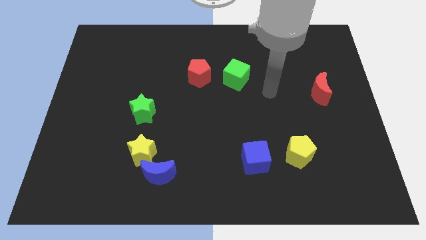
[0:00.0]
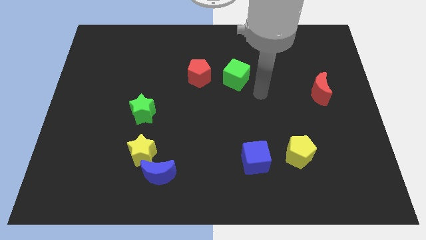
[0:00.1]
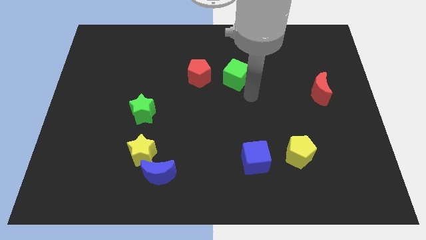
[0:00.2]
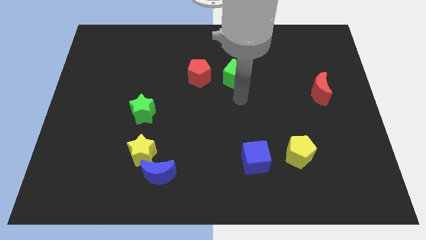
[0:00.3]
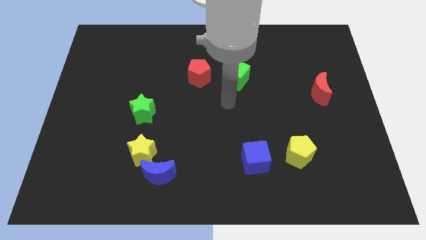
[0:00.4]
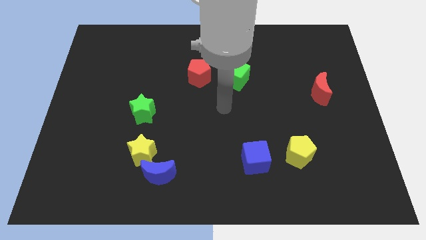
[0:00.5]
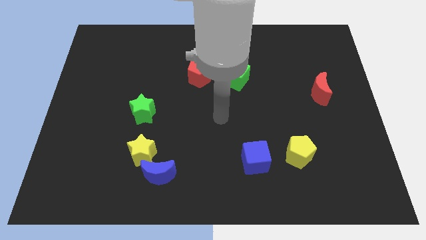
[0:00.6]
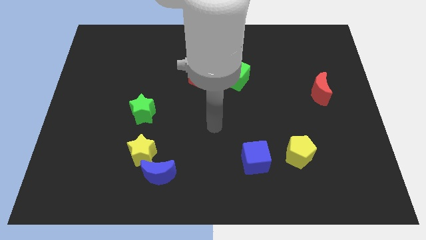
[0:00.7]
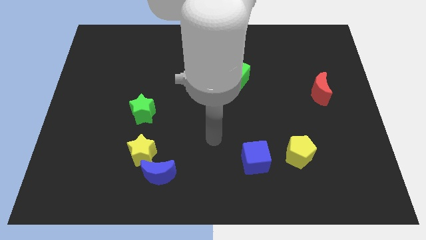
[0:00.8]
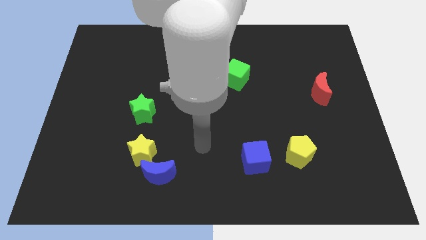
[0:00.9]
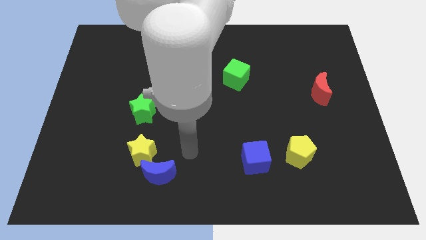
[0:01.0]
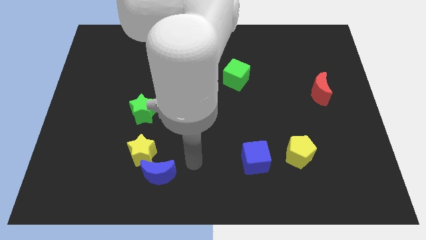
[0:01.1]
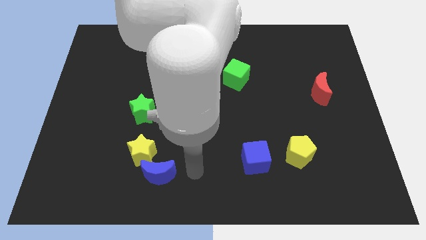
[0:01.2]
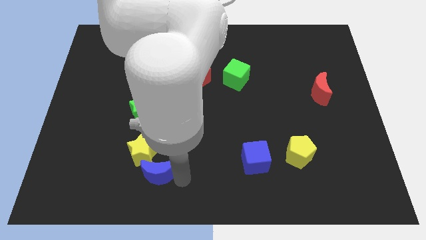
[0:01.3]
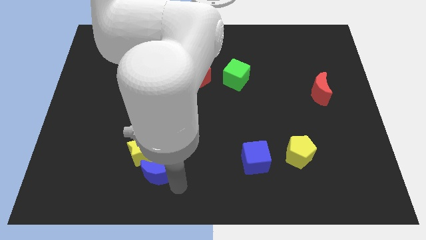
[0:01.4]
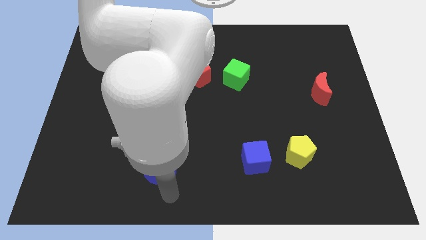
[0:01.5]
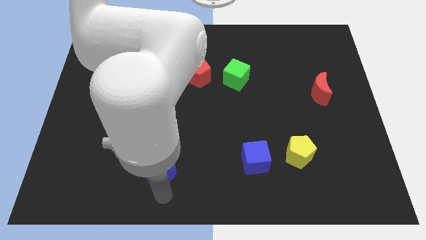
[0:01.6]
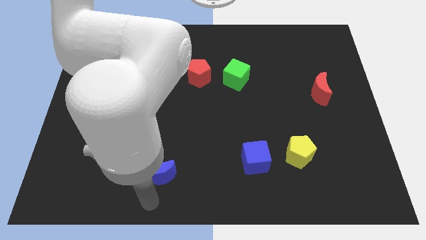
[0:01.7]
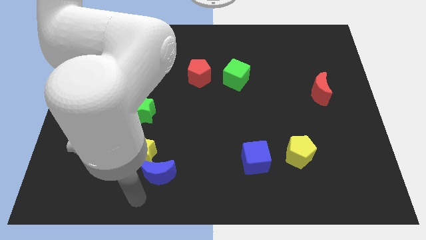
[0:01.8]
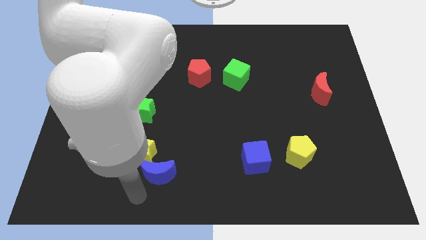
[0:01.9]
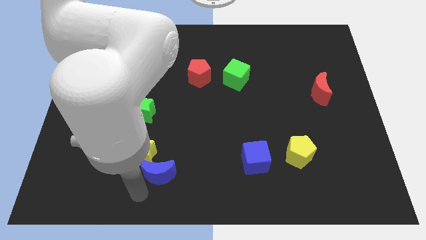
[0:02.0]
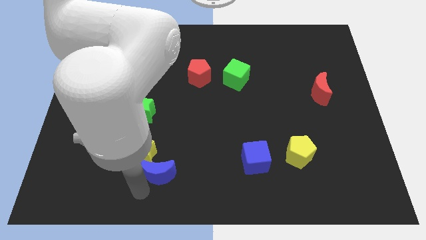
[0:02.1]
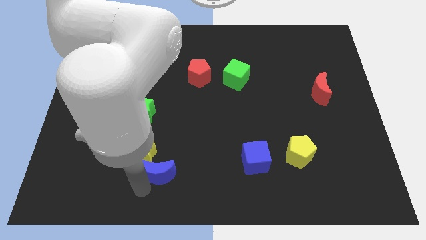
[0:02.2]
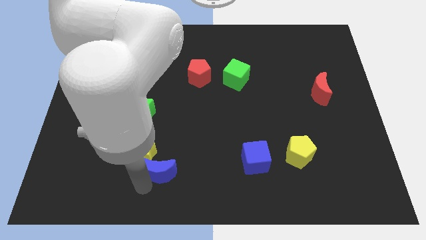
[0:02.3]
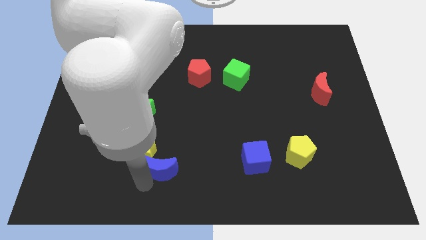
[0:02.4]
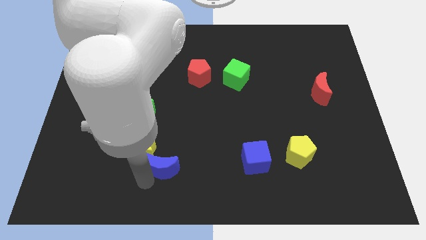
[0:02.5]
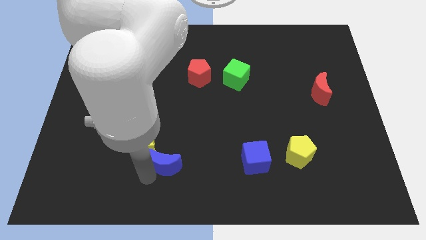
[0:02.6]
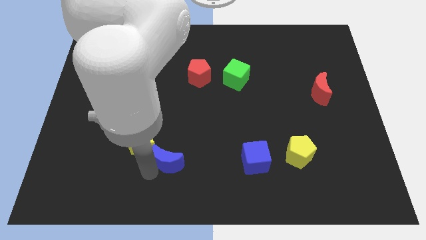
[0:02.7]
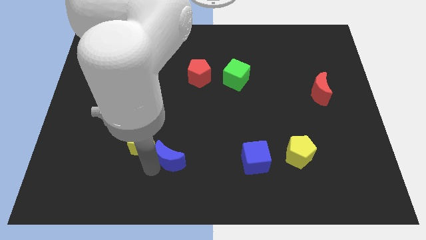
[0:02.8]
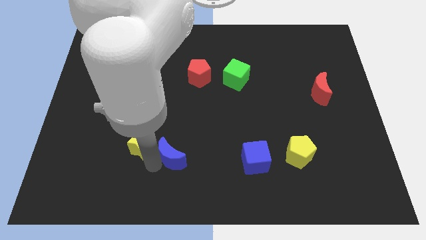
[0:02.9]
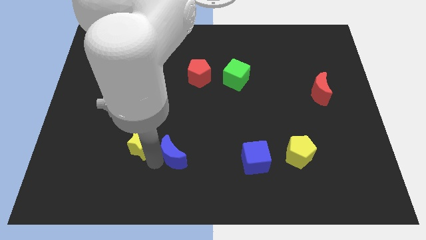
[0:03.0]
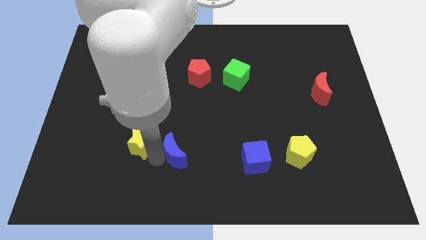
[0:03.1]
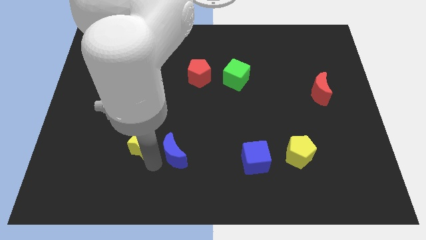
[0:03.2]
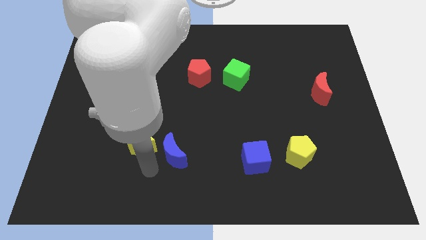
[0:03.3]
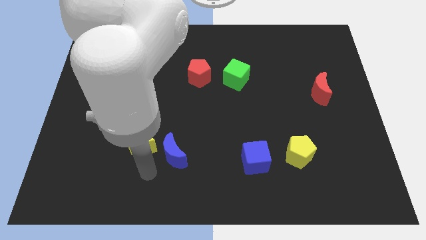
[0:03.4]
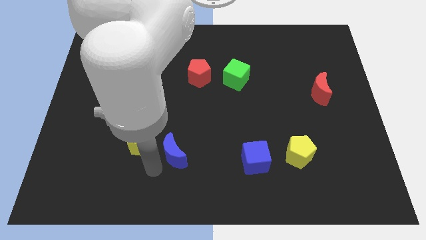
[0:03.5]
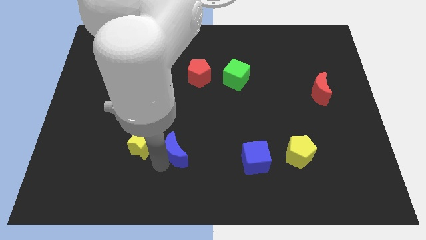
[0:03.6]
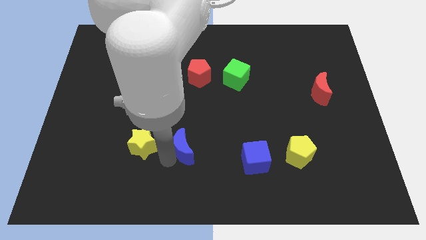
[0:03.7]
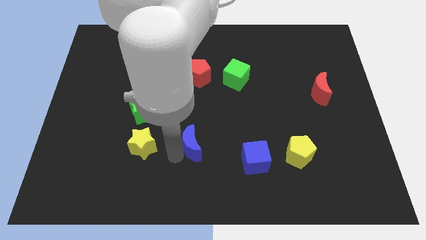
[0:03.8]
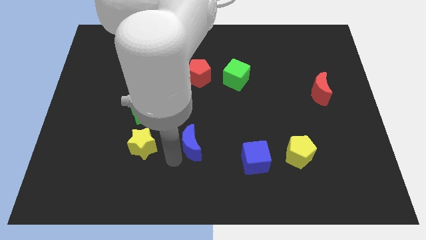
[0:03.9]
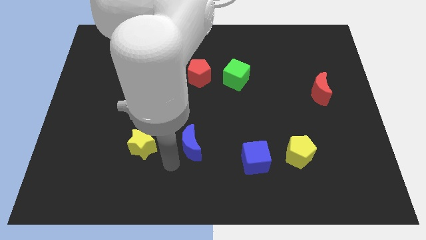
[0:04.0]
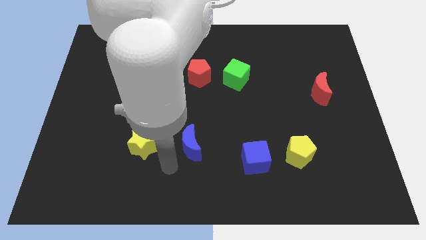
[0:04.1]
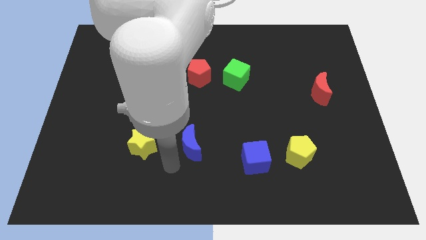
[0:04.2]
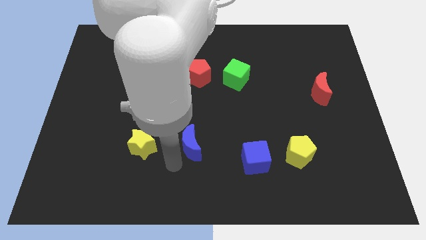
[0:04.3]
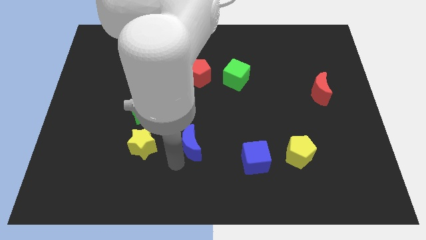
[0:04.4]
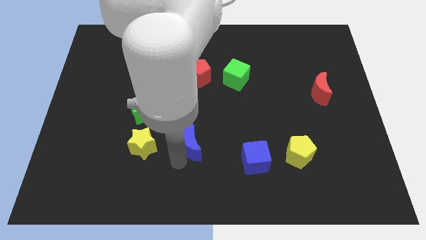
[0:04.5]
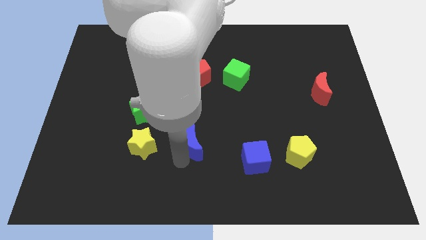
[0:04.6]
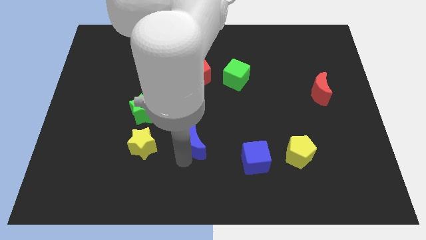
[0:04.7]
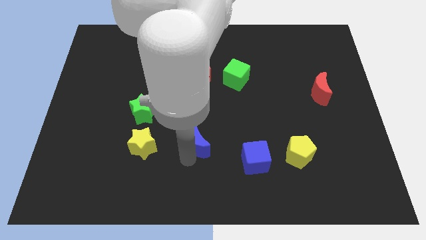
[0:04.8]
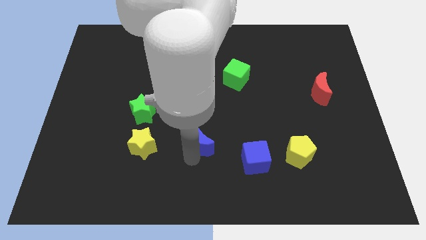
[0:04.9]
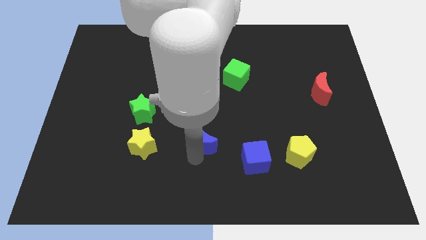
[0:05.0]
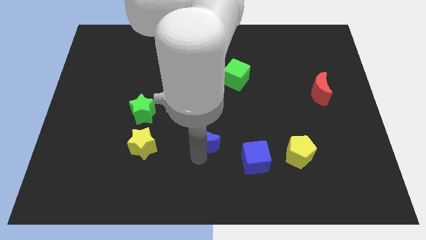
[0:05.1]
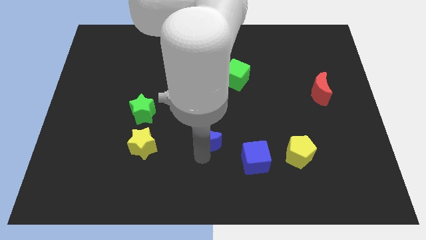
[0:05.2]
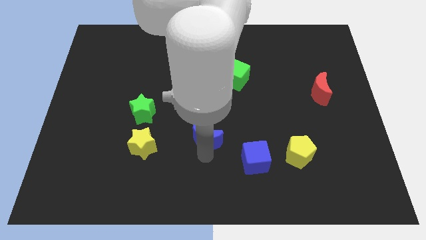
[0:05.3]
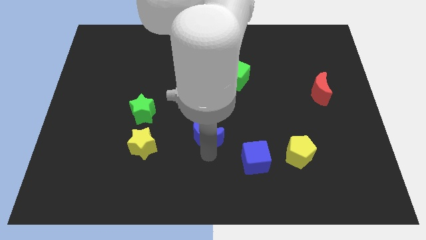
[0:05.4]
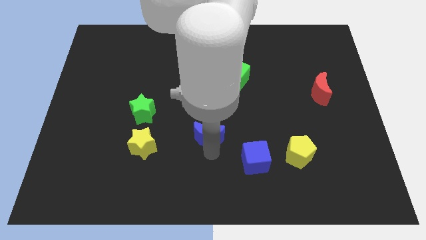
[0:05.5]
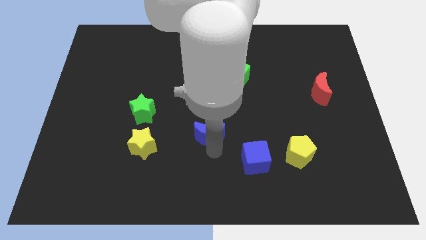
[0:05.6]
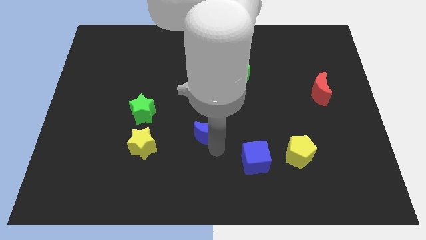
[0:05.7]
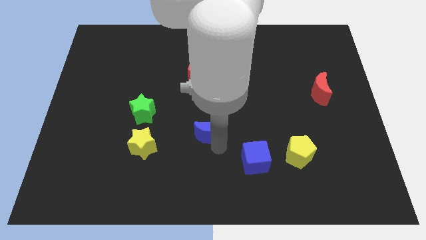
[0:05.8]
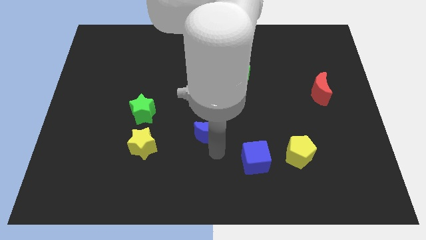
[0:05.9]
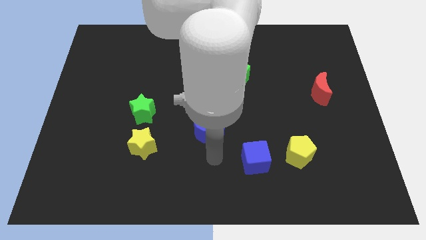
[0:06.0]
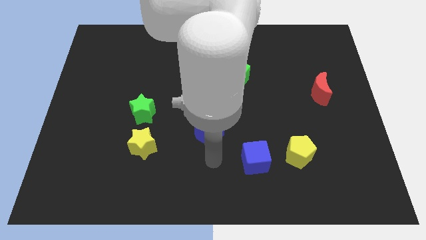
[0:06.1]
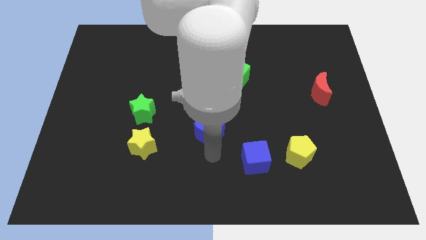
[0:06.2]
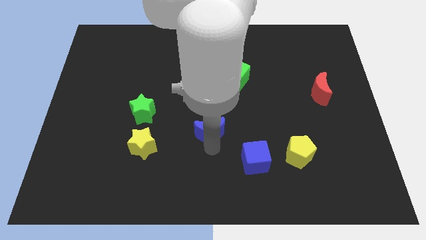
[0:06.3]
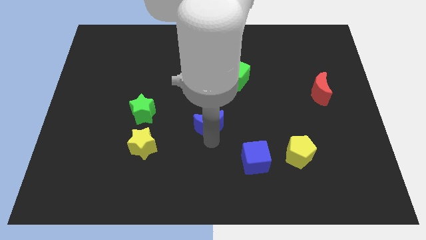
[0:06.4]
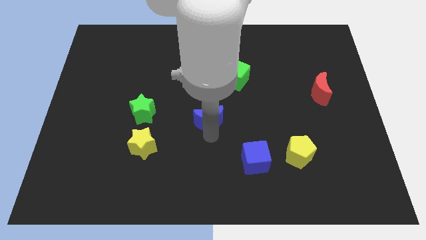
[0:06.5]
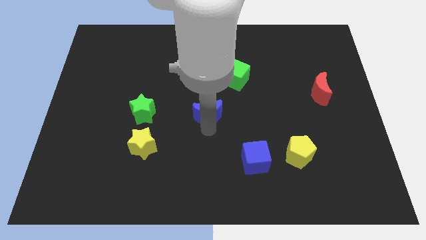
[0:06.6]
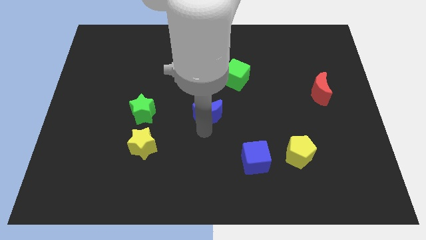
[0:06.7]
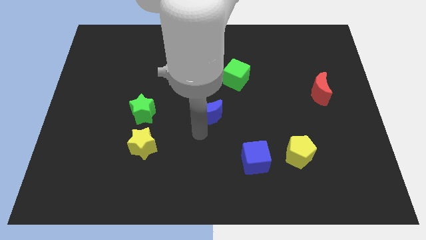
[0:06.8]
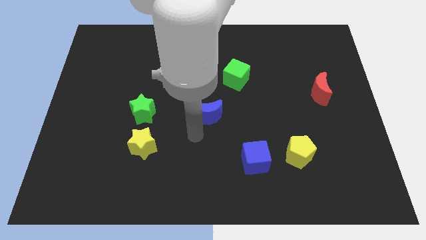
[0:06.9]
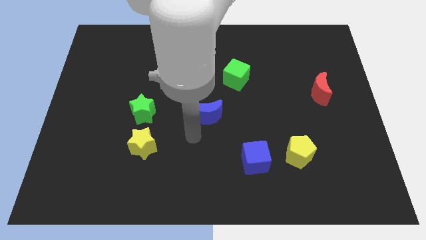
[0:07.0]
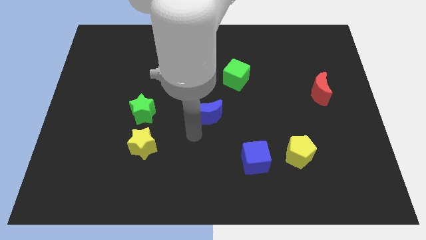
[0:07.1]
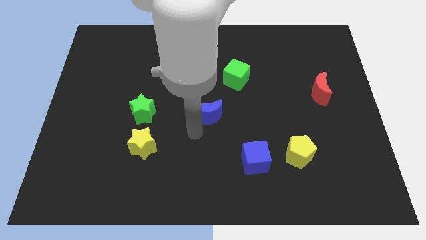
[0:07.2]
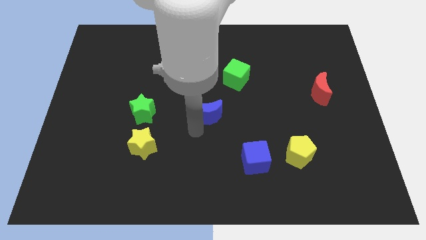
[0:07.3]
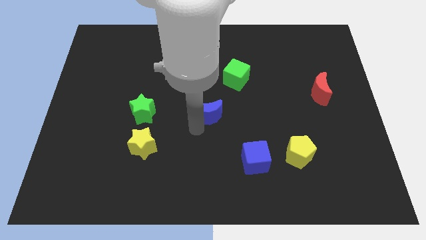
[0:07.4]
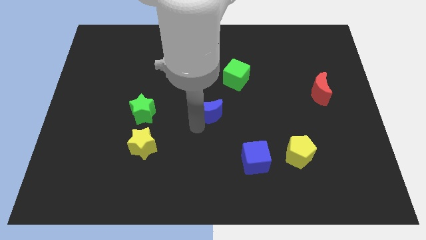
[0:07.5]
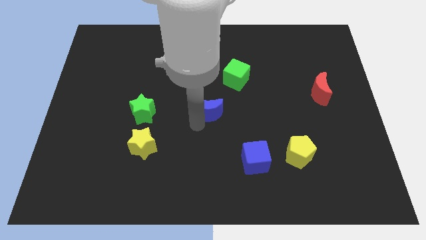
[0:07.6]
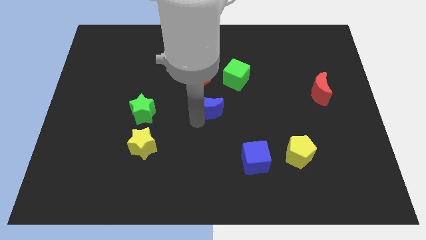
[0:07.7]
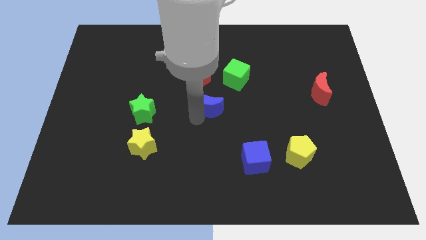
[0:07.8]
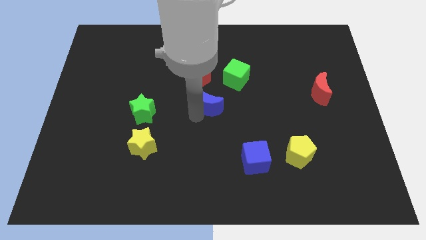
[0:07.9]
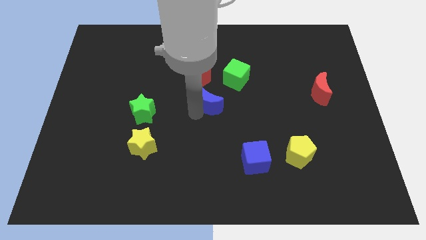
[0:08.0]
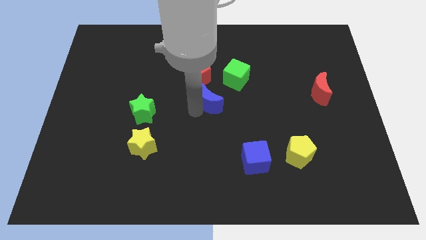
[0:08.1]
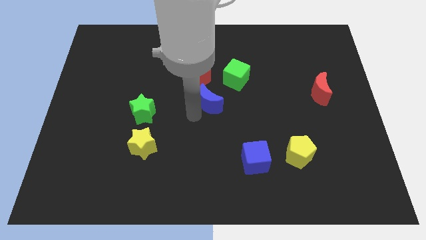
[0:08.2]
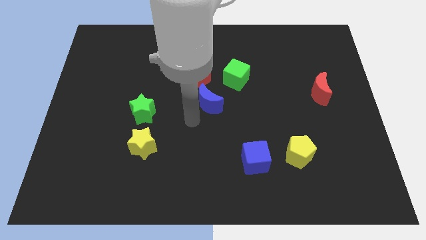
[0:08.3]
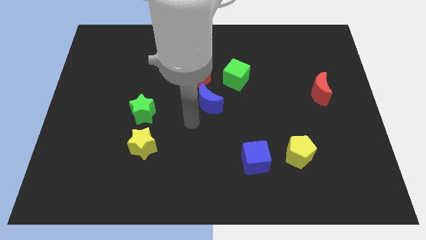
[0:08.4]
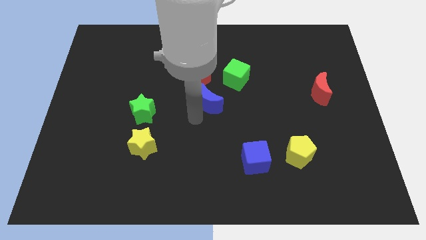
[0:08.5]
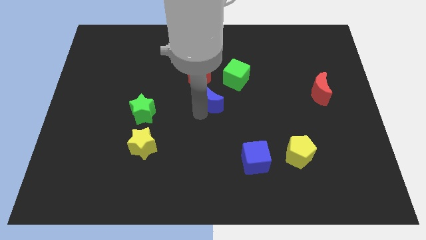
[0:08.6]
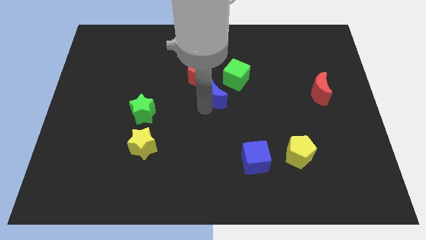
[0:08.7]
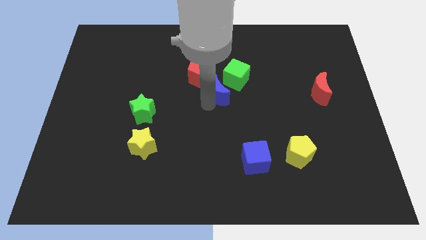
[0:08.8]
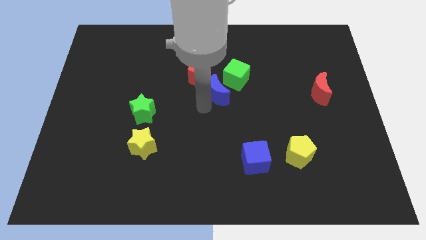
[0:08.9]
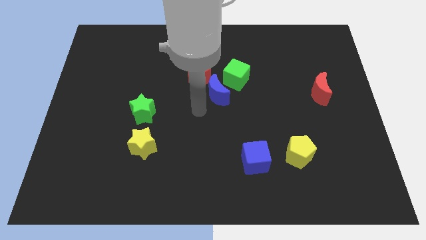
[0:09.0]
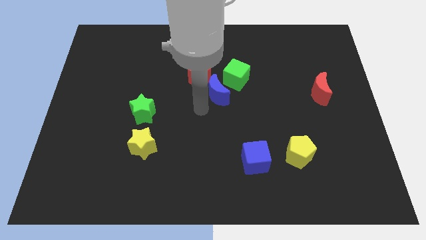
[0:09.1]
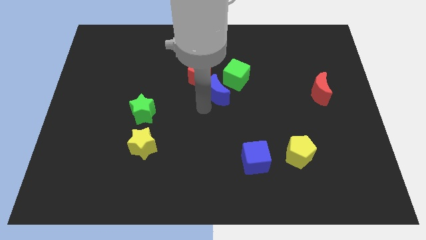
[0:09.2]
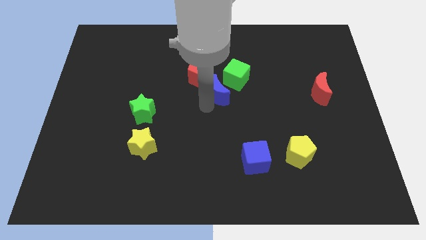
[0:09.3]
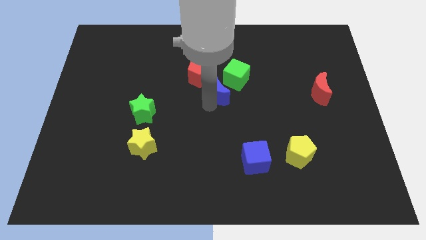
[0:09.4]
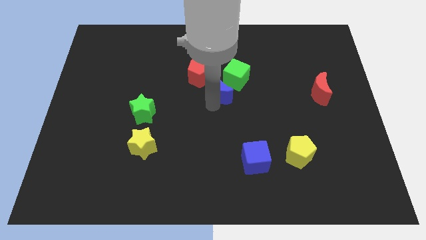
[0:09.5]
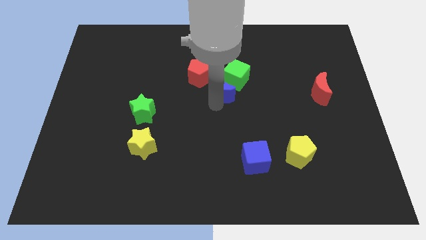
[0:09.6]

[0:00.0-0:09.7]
push the blue moon close to the green cube
